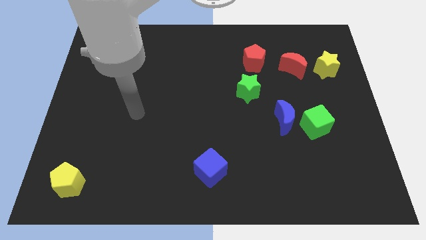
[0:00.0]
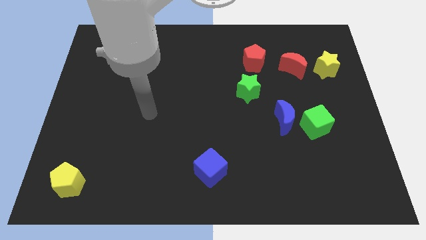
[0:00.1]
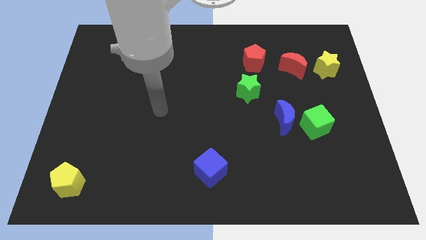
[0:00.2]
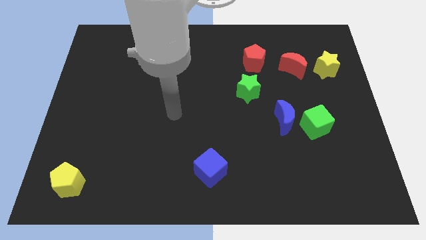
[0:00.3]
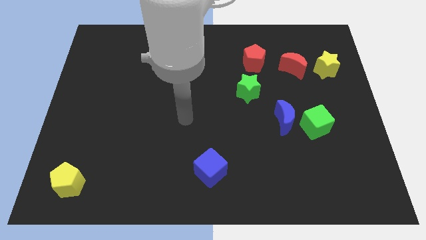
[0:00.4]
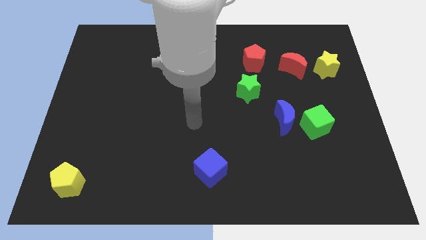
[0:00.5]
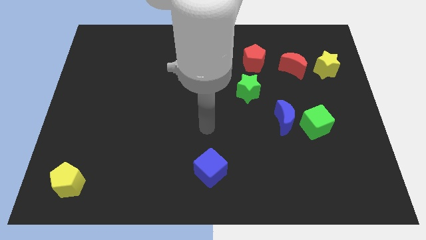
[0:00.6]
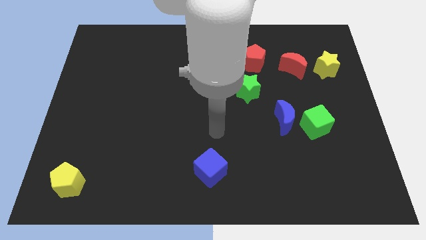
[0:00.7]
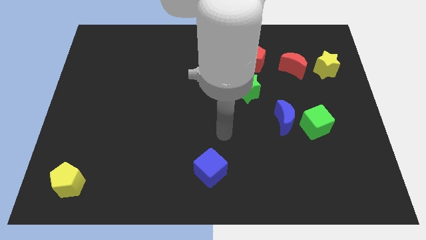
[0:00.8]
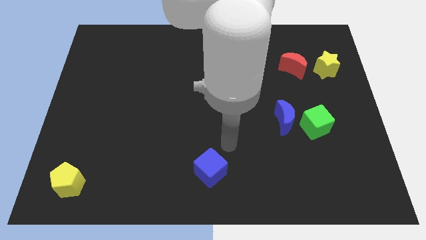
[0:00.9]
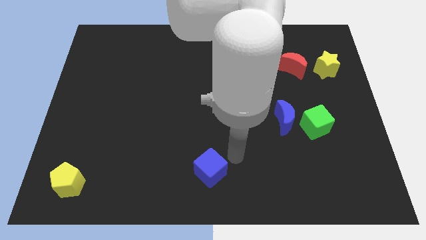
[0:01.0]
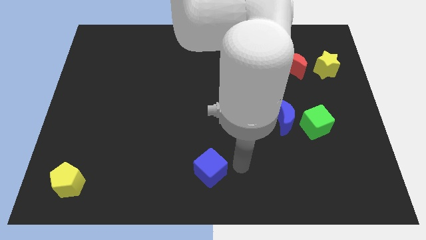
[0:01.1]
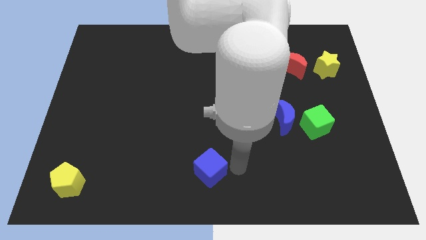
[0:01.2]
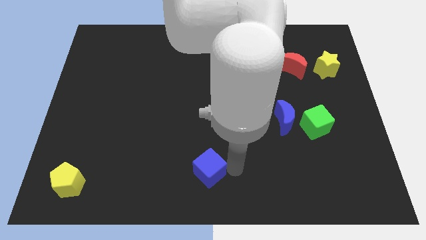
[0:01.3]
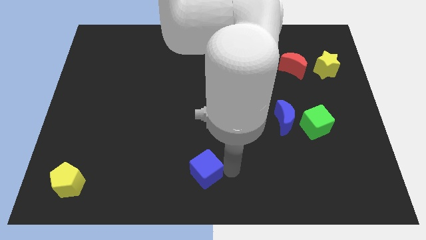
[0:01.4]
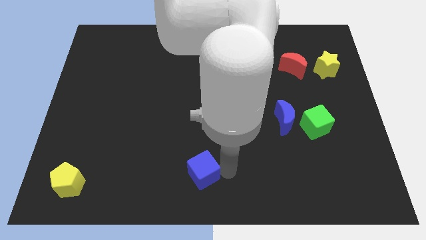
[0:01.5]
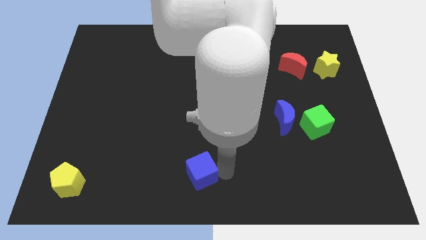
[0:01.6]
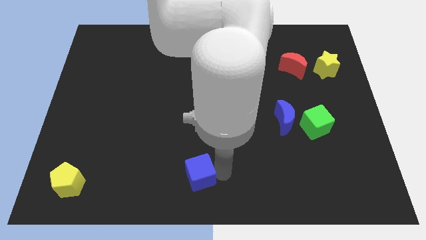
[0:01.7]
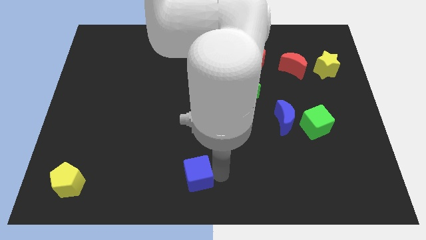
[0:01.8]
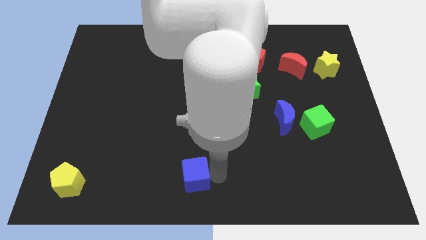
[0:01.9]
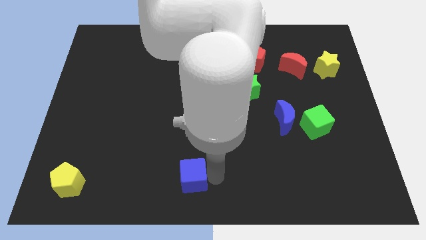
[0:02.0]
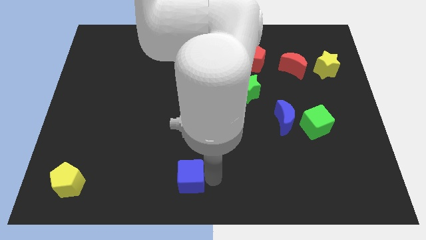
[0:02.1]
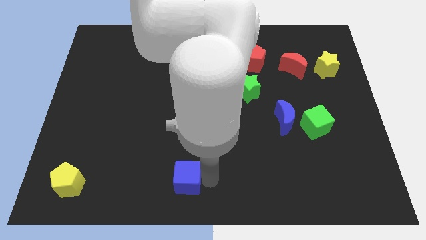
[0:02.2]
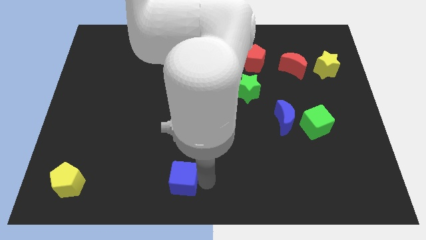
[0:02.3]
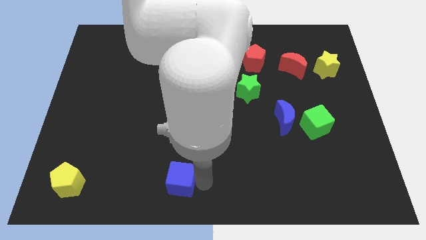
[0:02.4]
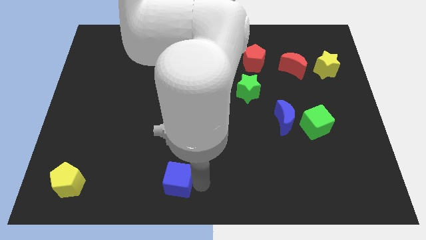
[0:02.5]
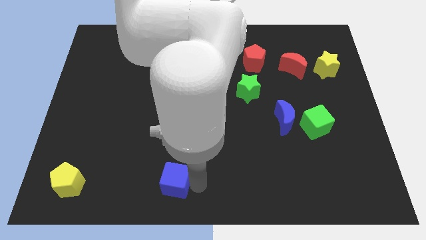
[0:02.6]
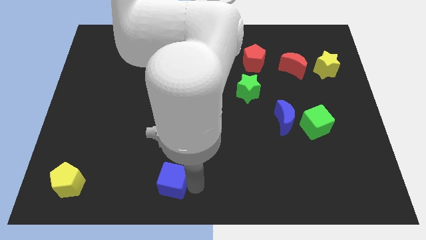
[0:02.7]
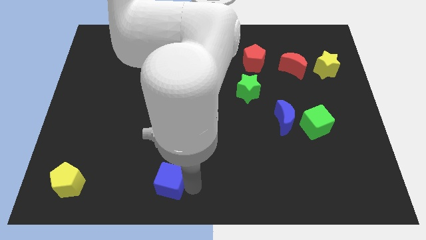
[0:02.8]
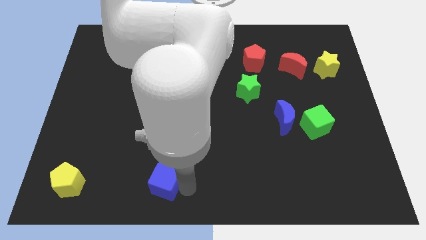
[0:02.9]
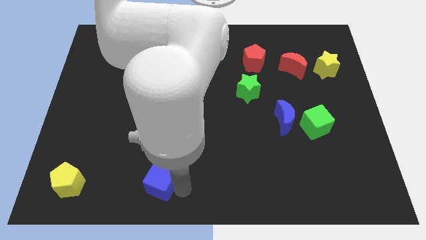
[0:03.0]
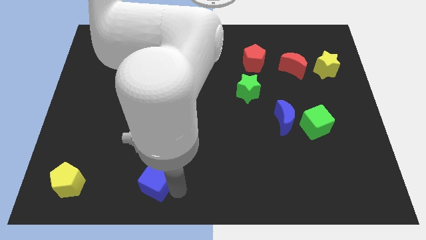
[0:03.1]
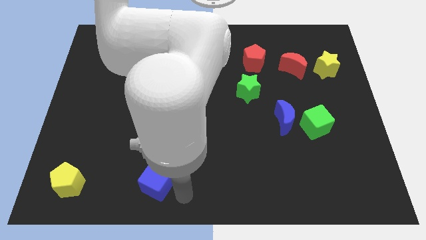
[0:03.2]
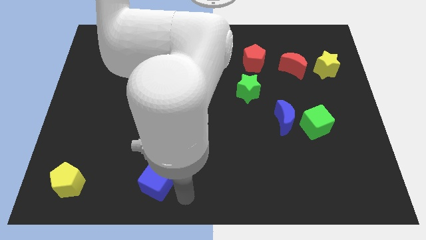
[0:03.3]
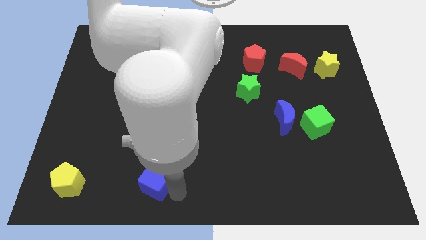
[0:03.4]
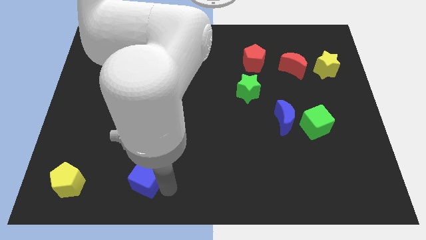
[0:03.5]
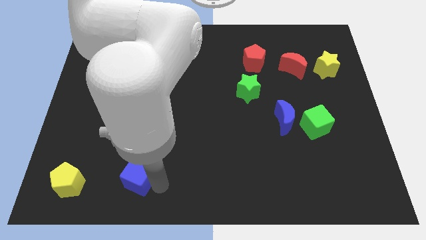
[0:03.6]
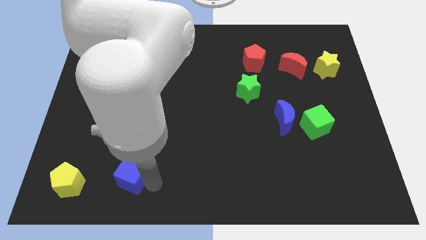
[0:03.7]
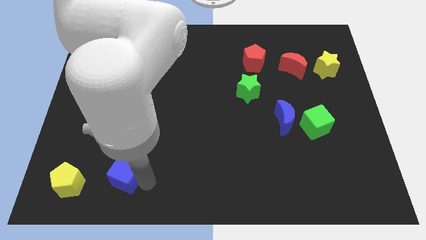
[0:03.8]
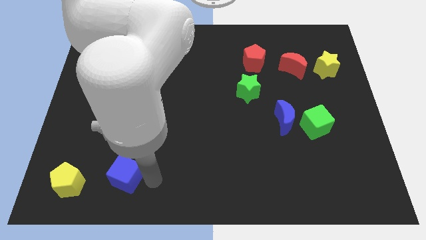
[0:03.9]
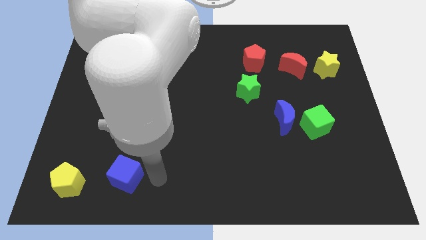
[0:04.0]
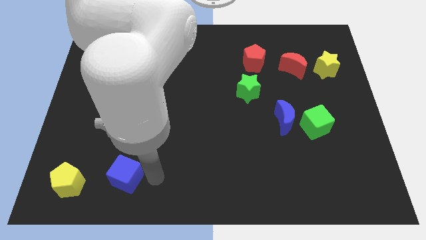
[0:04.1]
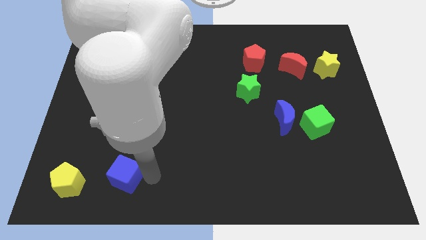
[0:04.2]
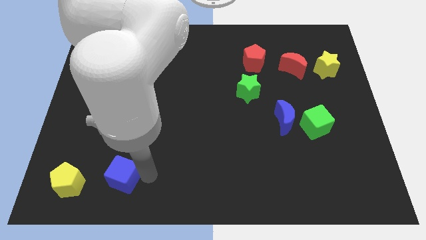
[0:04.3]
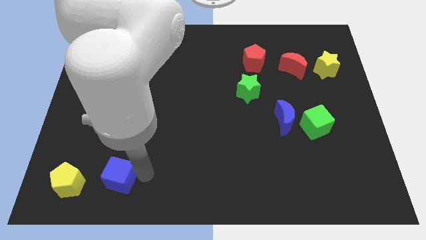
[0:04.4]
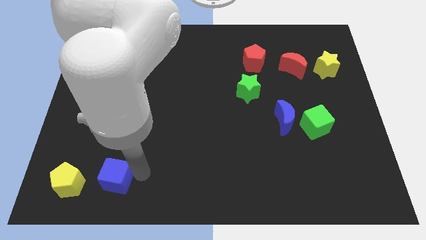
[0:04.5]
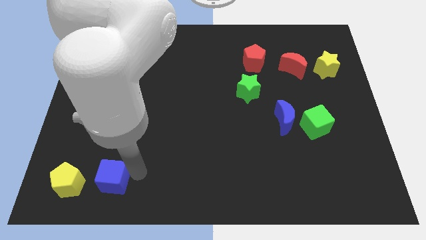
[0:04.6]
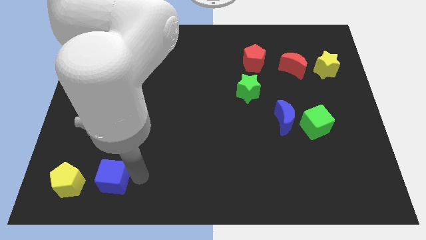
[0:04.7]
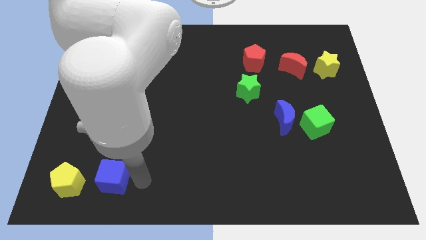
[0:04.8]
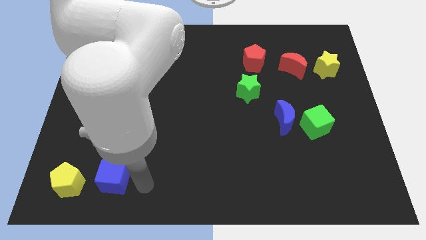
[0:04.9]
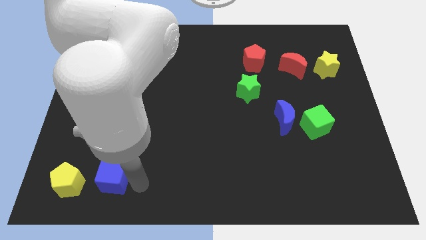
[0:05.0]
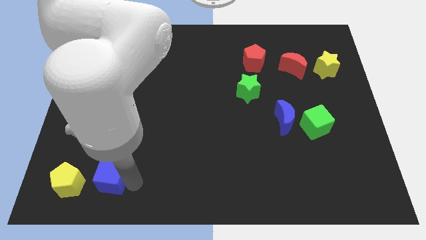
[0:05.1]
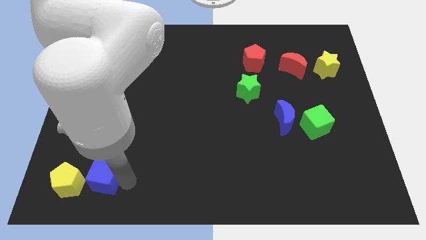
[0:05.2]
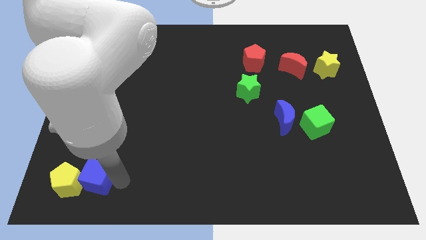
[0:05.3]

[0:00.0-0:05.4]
put the blue cube close to the yellow pentagon

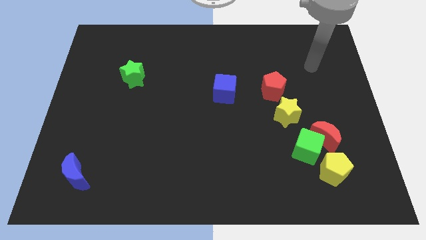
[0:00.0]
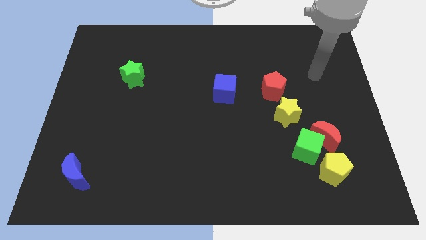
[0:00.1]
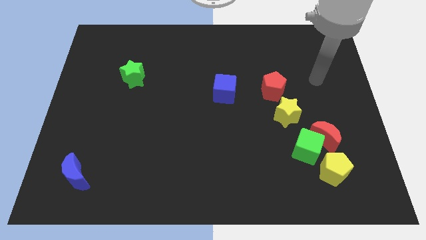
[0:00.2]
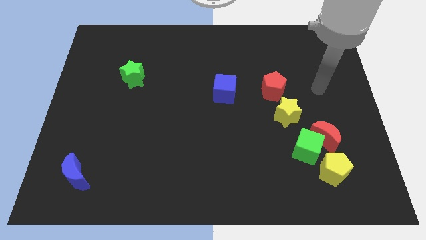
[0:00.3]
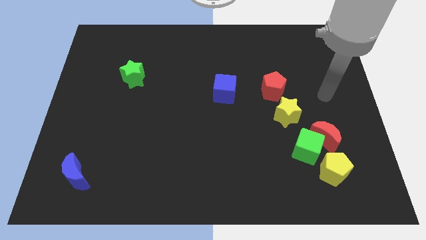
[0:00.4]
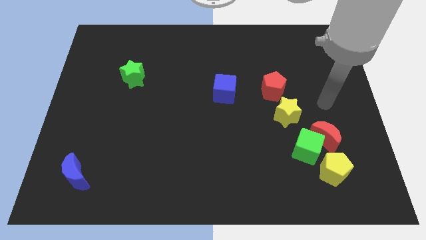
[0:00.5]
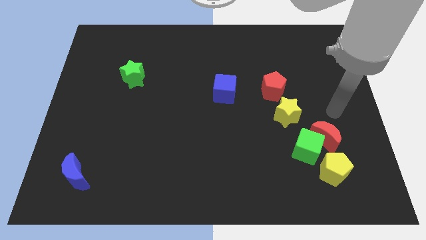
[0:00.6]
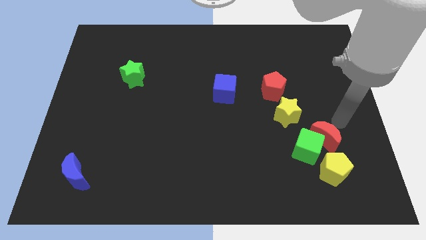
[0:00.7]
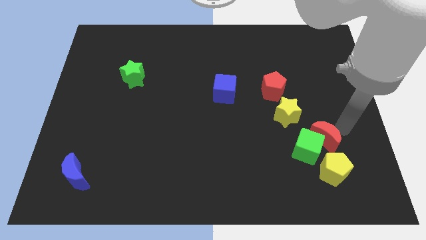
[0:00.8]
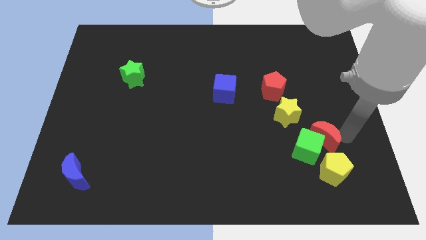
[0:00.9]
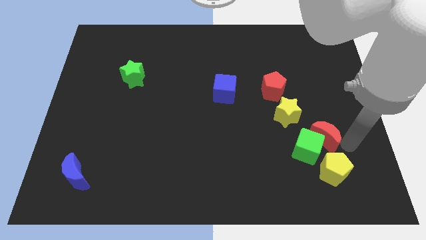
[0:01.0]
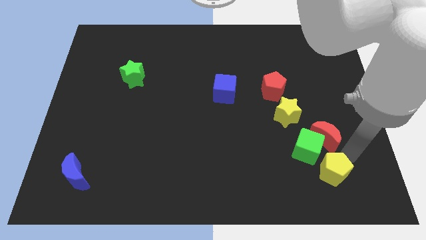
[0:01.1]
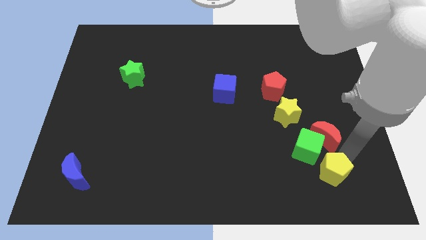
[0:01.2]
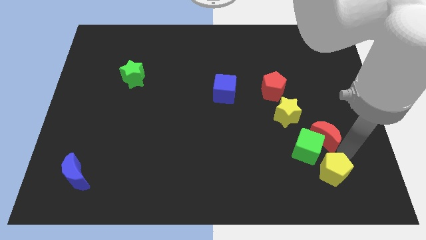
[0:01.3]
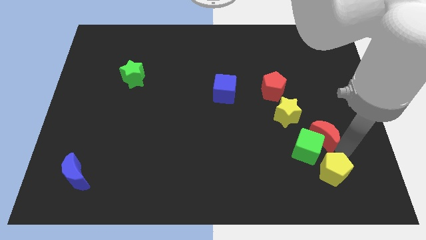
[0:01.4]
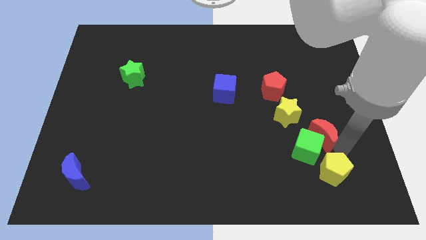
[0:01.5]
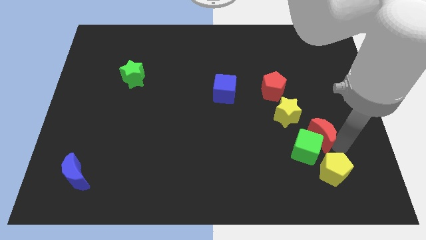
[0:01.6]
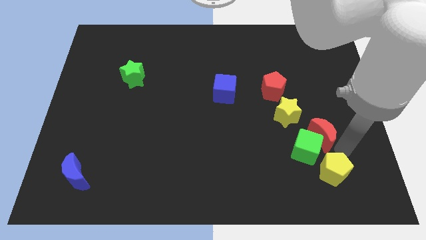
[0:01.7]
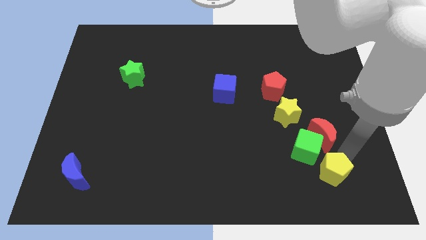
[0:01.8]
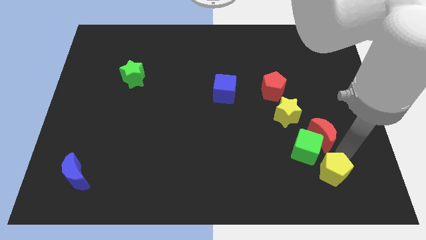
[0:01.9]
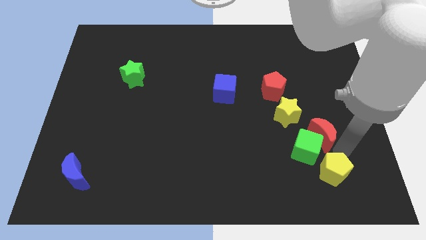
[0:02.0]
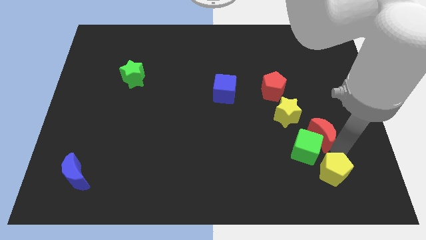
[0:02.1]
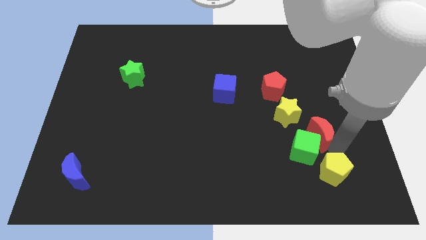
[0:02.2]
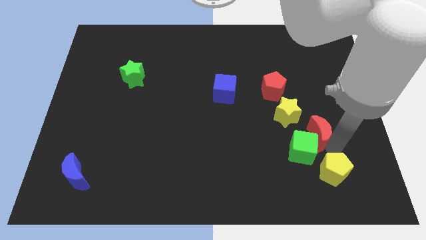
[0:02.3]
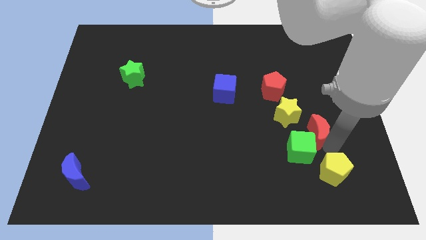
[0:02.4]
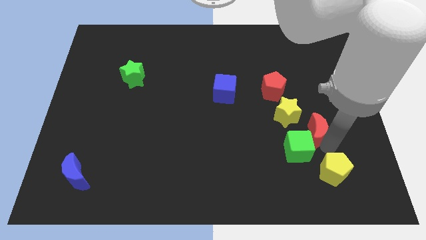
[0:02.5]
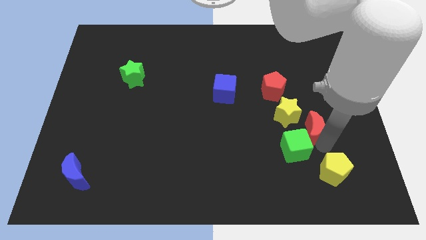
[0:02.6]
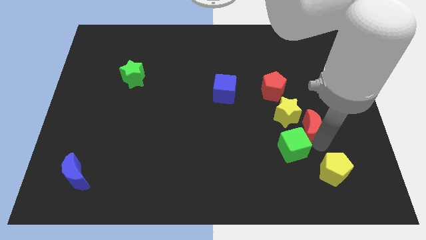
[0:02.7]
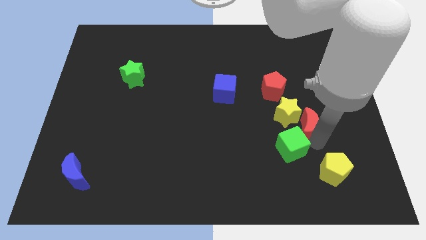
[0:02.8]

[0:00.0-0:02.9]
slide the red moon close to the yellow star
